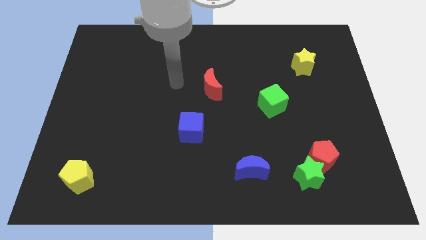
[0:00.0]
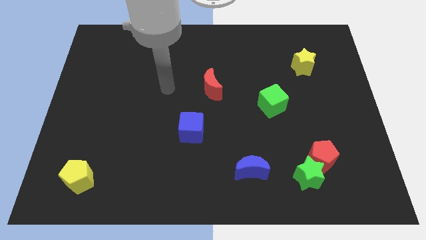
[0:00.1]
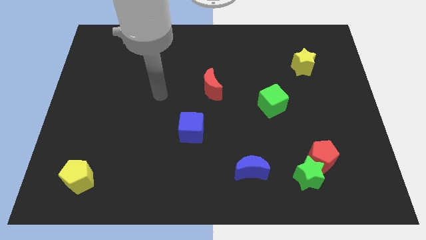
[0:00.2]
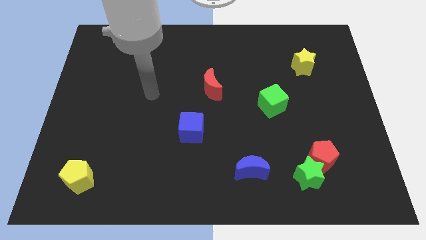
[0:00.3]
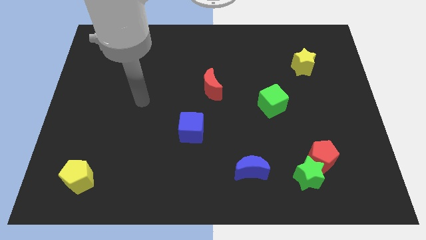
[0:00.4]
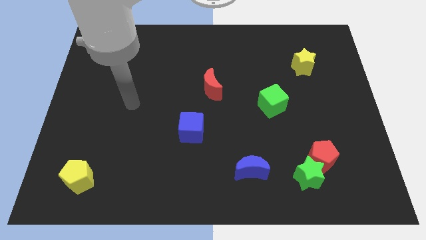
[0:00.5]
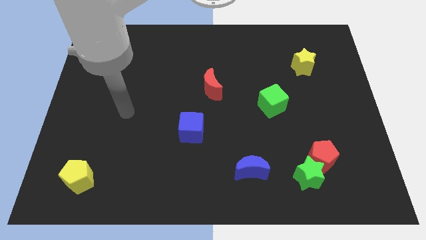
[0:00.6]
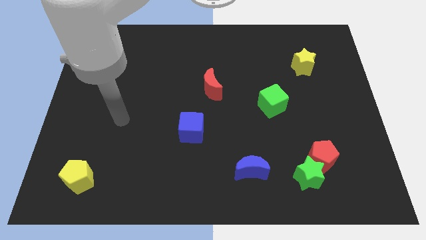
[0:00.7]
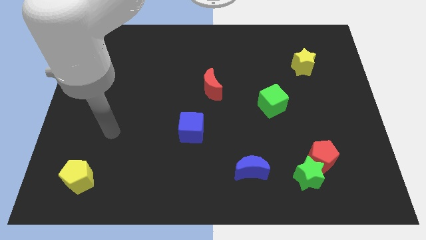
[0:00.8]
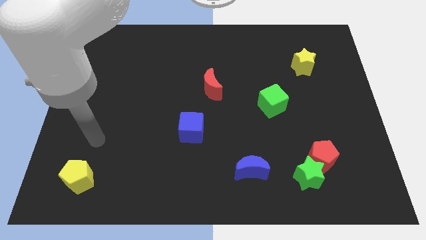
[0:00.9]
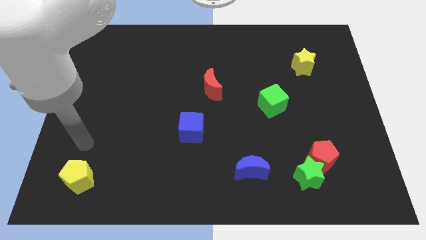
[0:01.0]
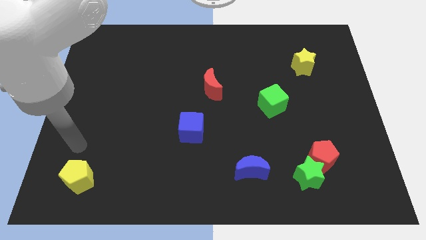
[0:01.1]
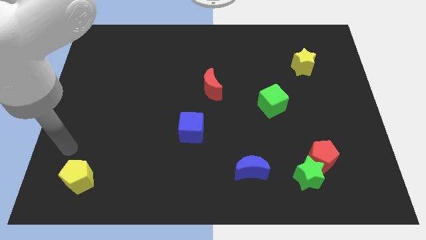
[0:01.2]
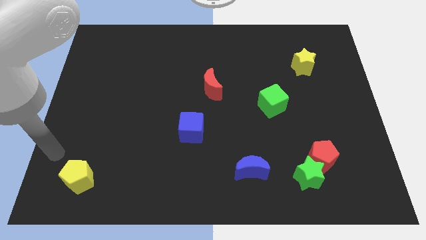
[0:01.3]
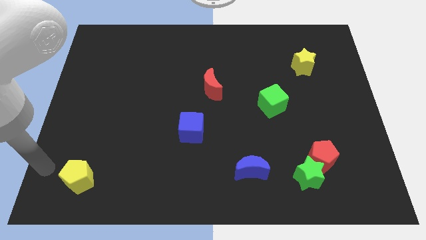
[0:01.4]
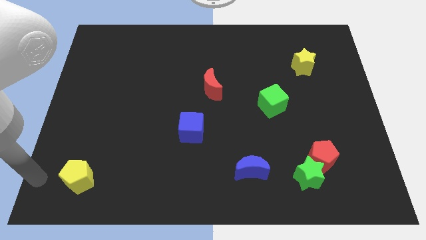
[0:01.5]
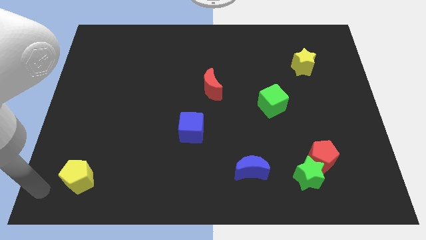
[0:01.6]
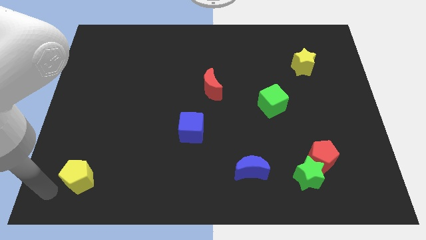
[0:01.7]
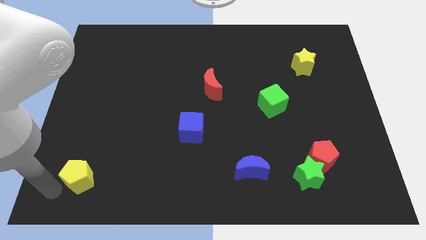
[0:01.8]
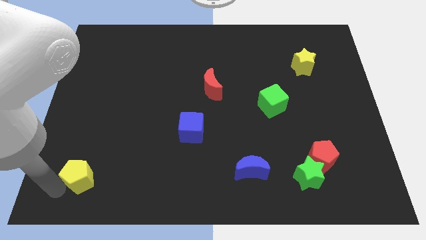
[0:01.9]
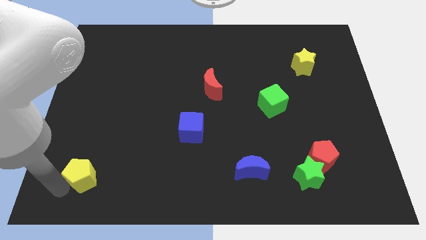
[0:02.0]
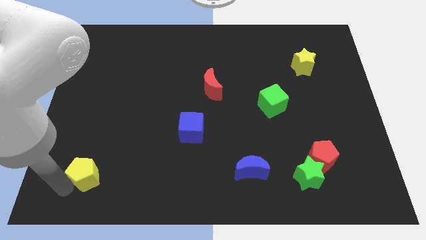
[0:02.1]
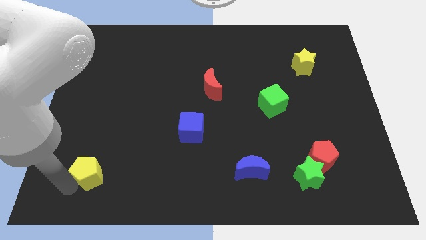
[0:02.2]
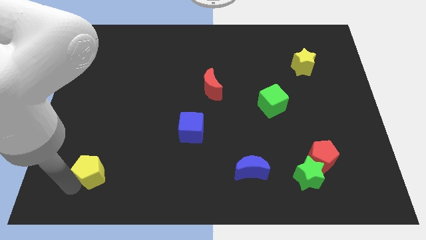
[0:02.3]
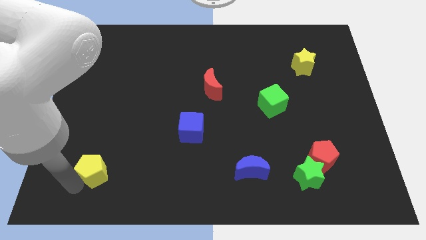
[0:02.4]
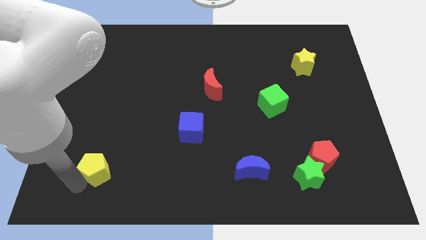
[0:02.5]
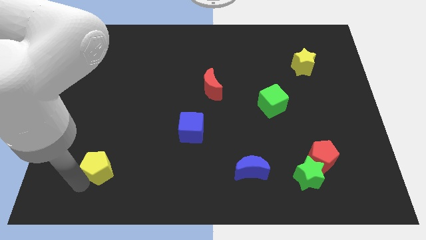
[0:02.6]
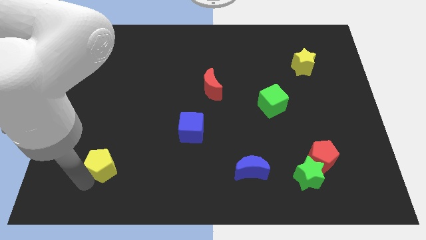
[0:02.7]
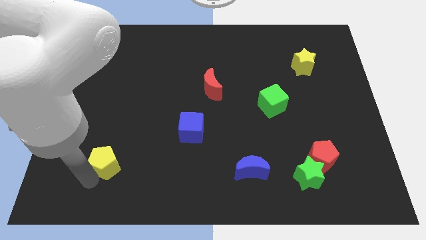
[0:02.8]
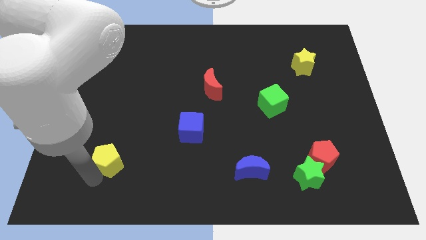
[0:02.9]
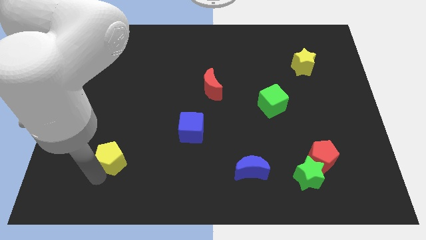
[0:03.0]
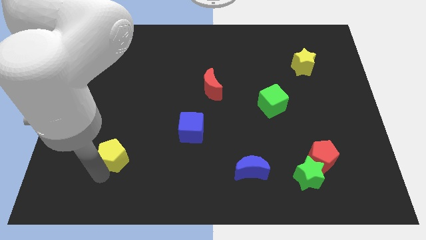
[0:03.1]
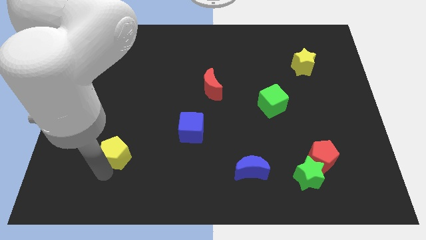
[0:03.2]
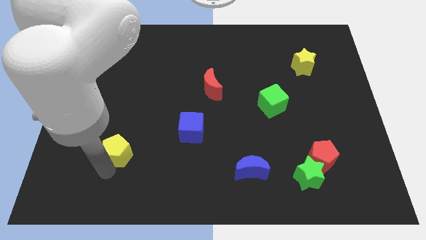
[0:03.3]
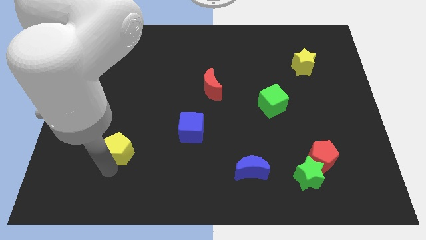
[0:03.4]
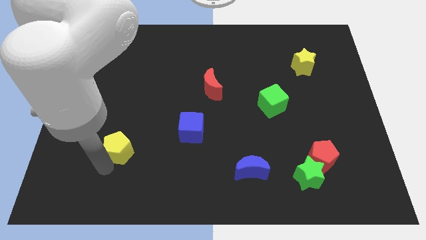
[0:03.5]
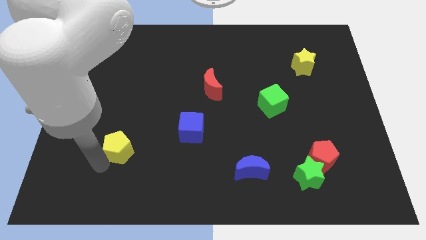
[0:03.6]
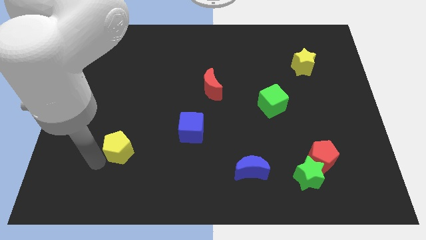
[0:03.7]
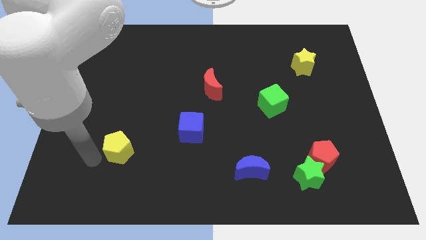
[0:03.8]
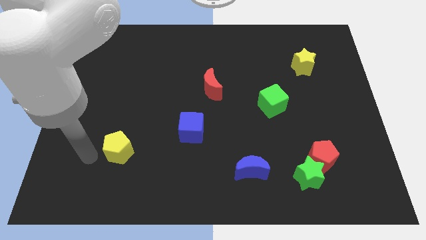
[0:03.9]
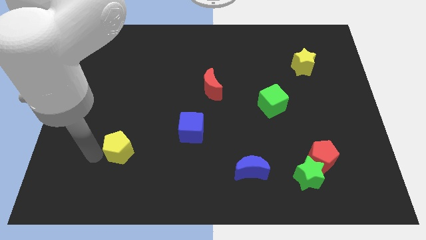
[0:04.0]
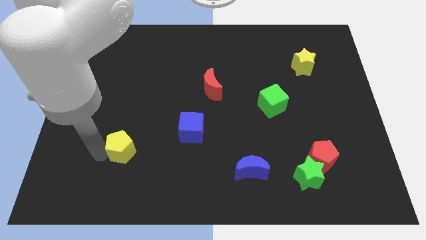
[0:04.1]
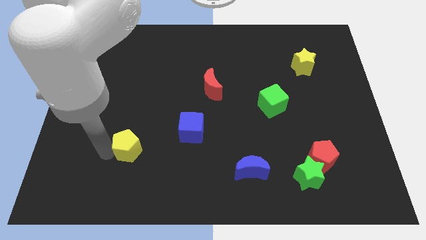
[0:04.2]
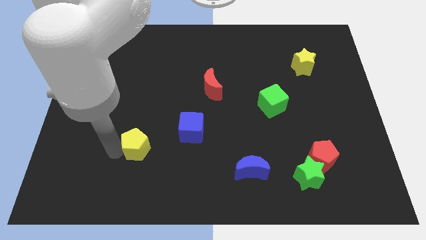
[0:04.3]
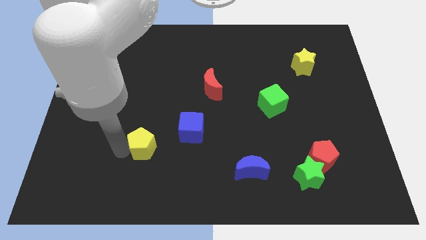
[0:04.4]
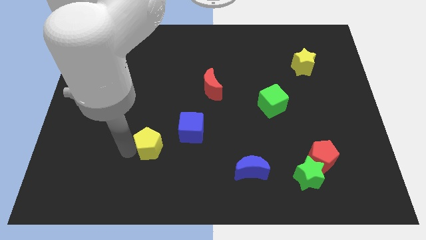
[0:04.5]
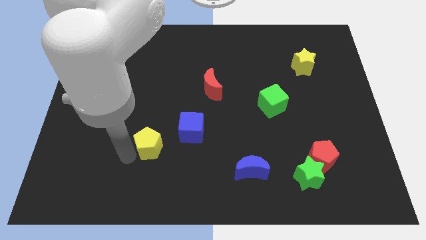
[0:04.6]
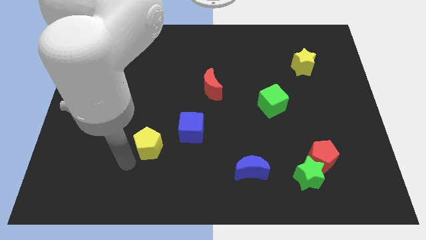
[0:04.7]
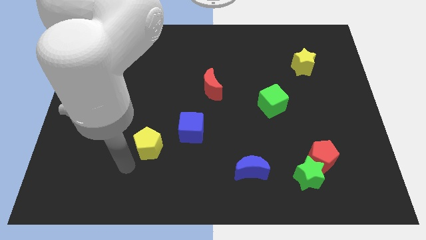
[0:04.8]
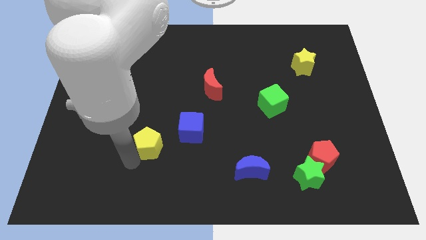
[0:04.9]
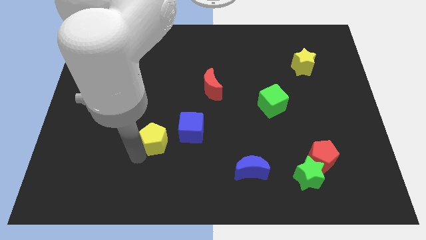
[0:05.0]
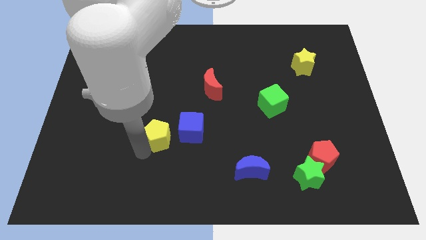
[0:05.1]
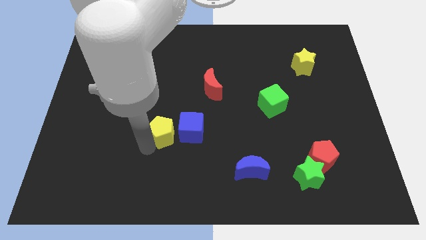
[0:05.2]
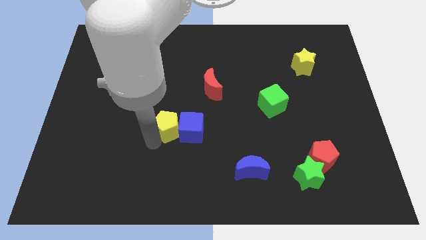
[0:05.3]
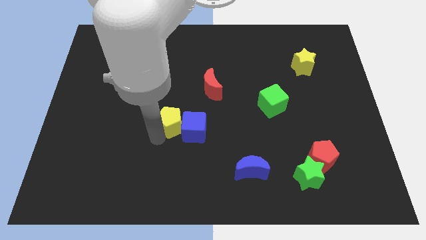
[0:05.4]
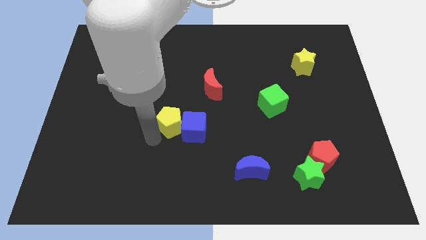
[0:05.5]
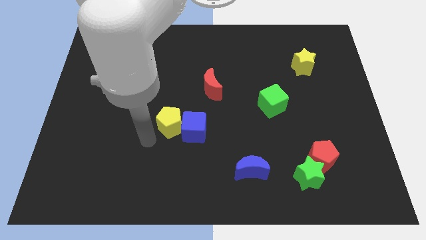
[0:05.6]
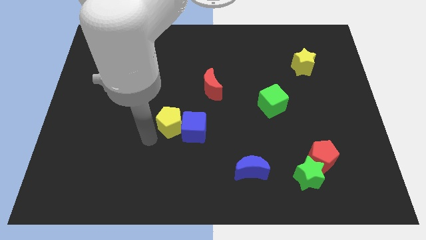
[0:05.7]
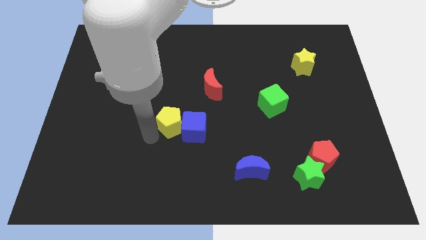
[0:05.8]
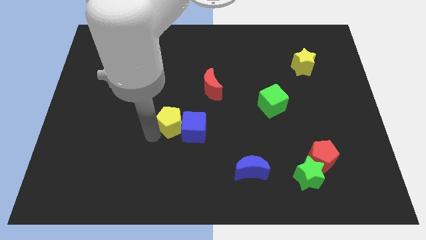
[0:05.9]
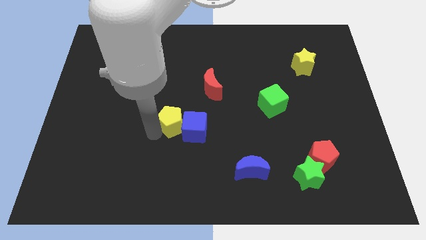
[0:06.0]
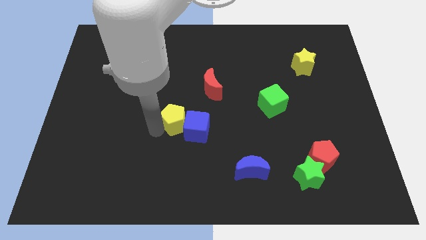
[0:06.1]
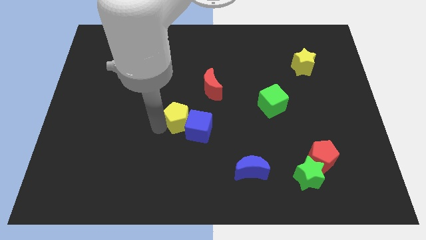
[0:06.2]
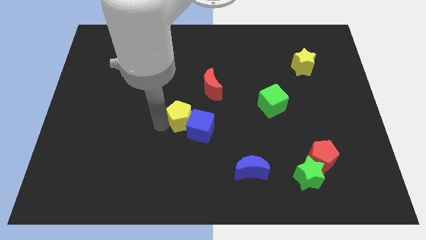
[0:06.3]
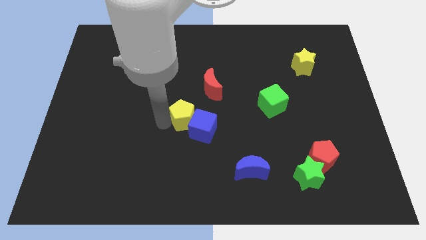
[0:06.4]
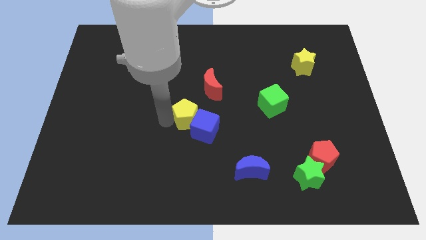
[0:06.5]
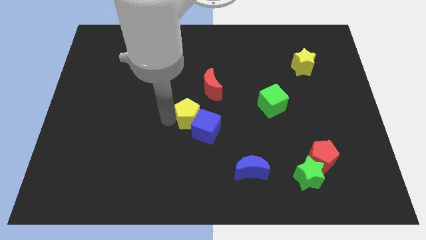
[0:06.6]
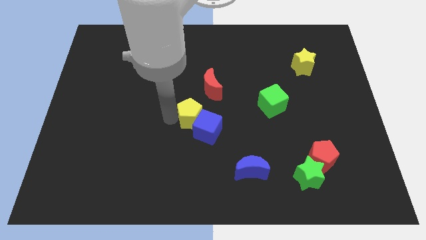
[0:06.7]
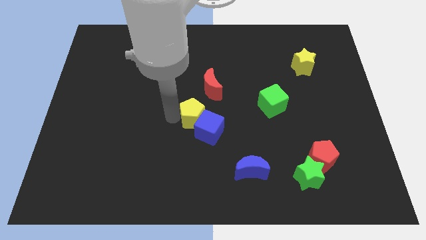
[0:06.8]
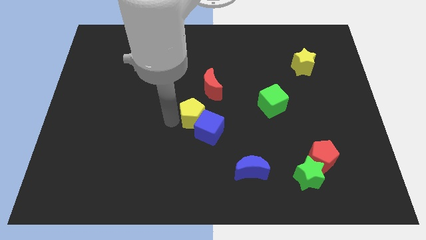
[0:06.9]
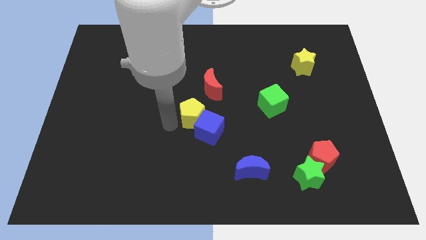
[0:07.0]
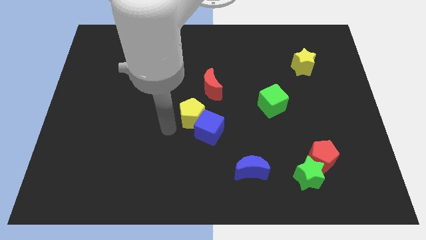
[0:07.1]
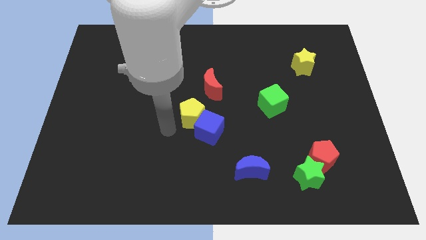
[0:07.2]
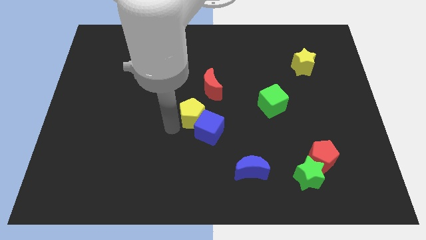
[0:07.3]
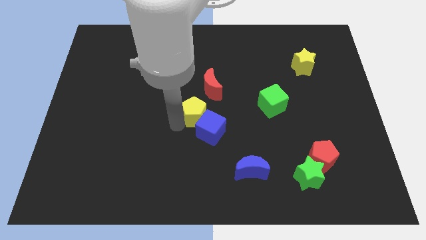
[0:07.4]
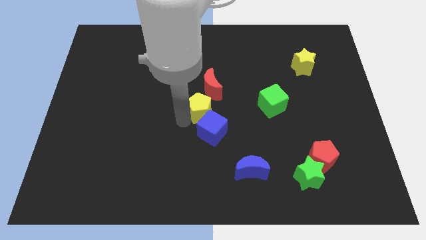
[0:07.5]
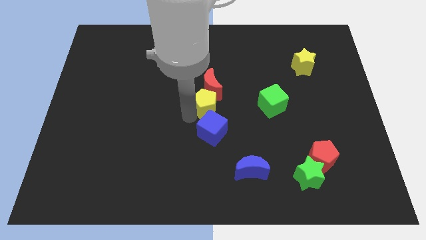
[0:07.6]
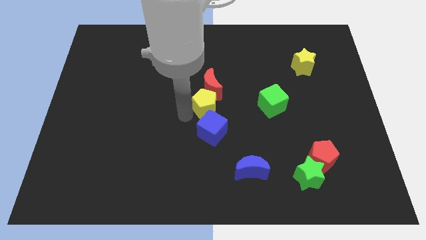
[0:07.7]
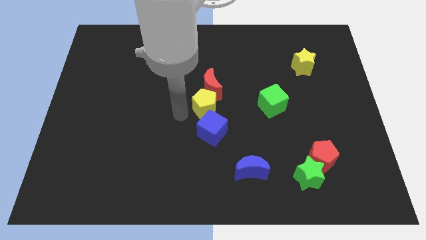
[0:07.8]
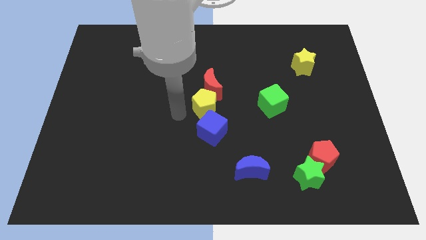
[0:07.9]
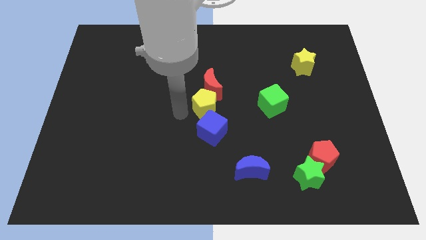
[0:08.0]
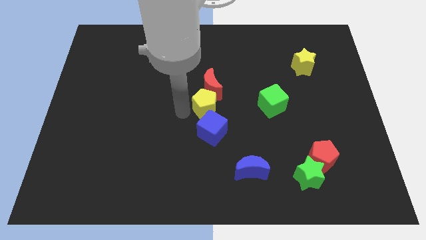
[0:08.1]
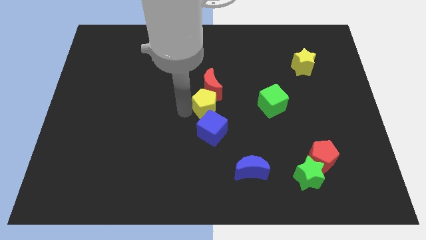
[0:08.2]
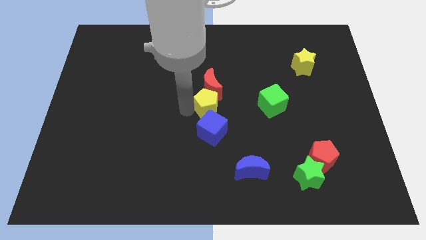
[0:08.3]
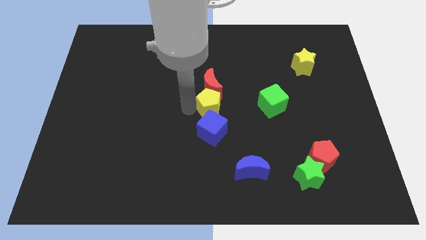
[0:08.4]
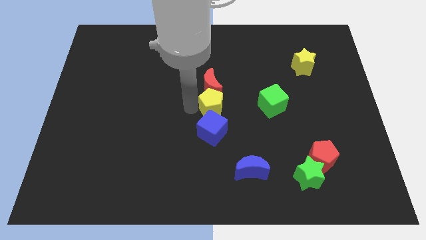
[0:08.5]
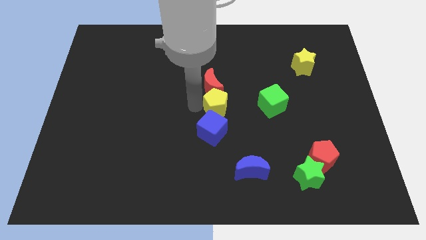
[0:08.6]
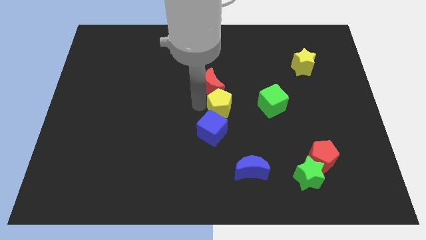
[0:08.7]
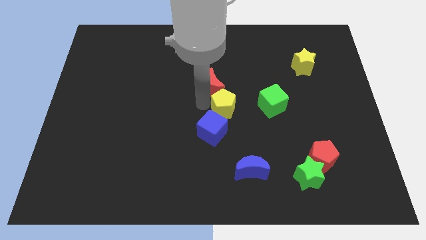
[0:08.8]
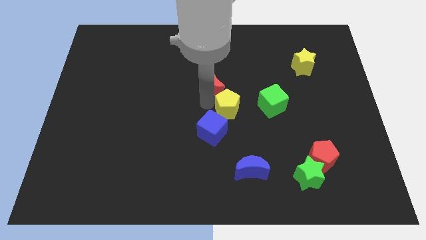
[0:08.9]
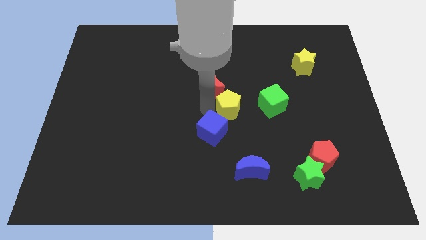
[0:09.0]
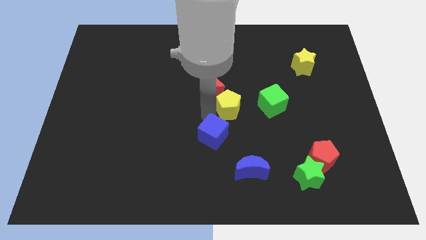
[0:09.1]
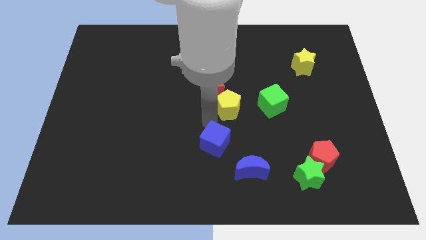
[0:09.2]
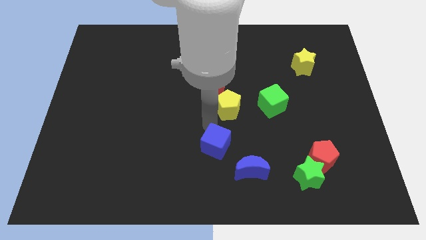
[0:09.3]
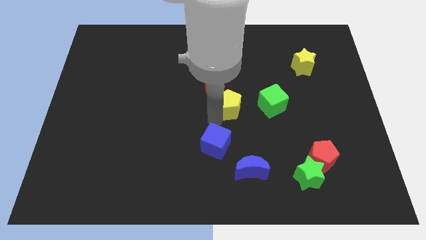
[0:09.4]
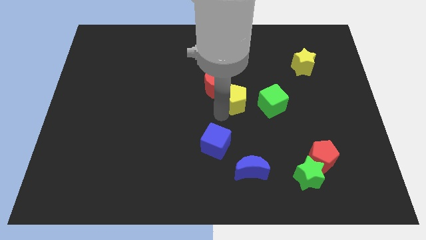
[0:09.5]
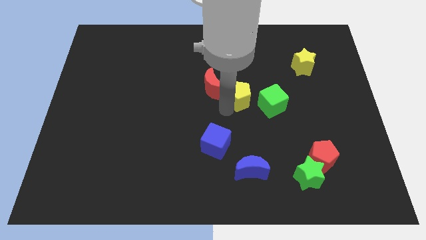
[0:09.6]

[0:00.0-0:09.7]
put the yellow pentagon to the top left side of the green cube
